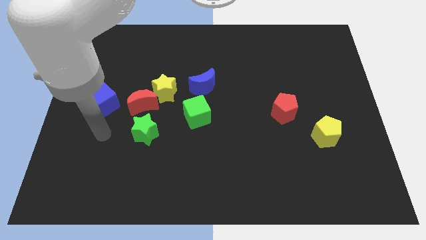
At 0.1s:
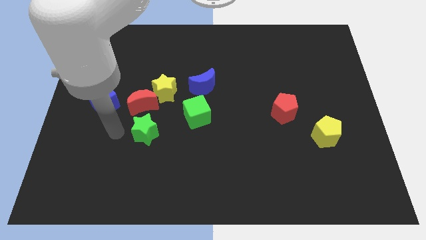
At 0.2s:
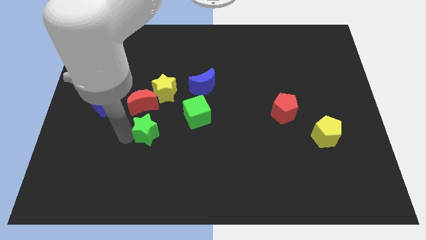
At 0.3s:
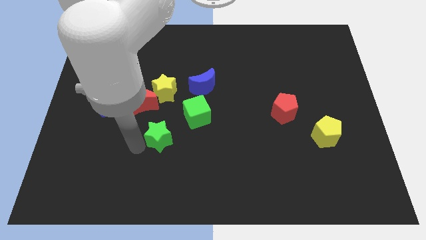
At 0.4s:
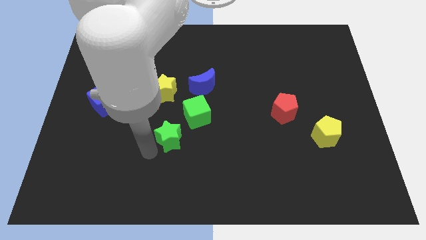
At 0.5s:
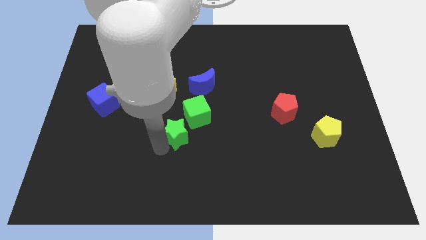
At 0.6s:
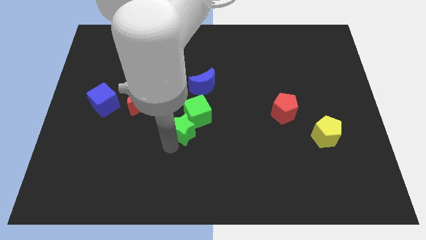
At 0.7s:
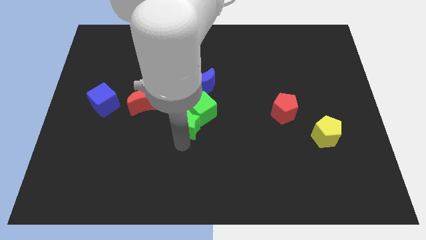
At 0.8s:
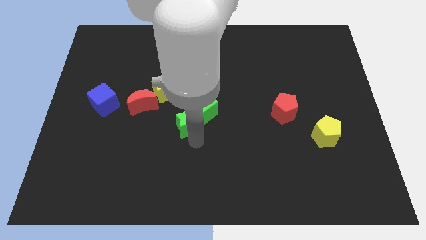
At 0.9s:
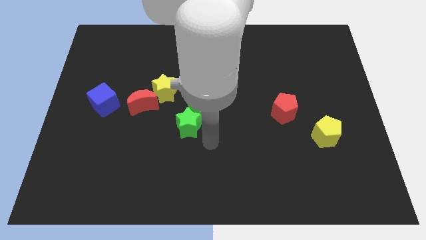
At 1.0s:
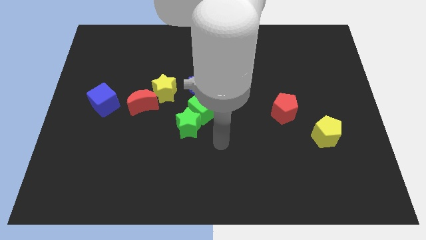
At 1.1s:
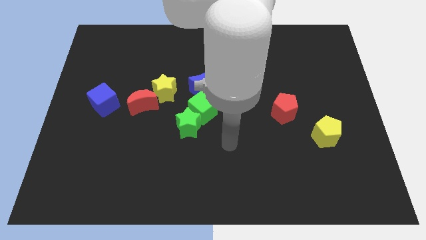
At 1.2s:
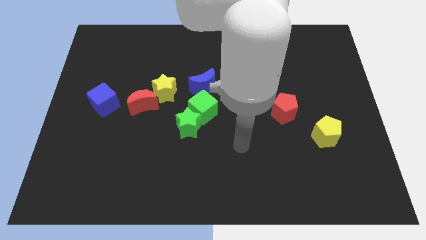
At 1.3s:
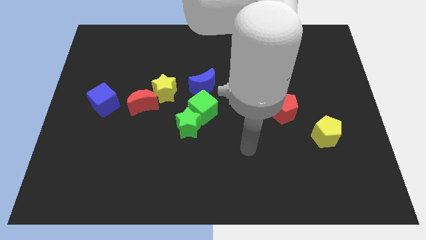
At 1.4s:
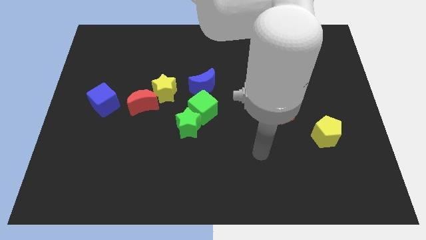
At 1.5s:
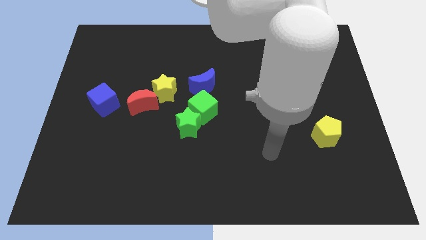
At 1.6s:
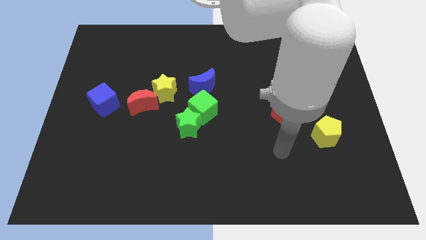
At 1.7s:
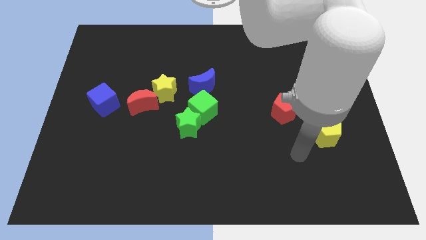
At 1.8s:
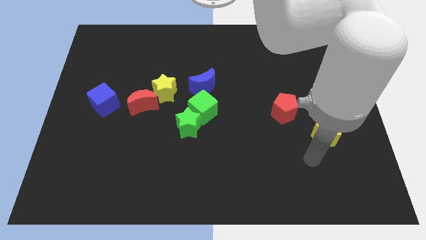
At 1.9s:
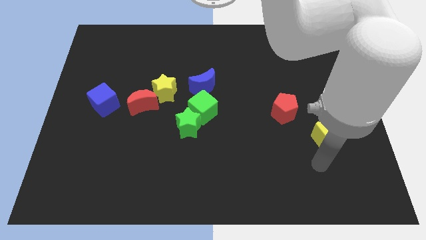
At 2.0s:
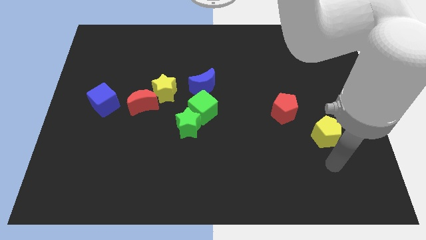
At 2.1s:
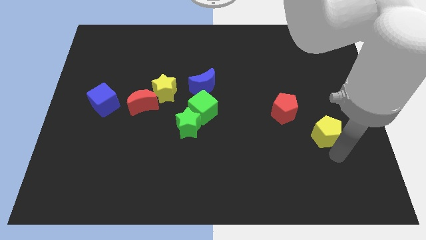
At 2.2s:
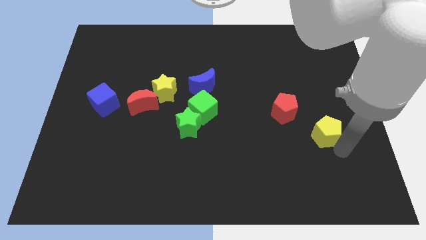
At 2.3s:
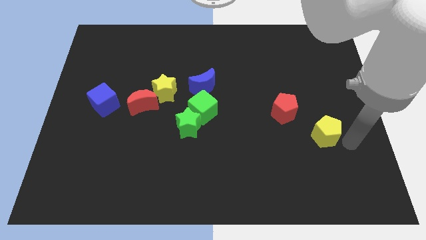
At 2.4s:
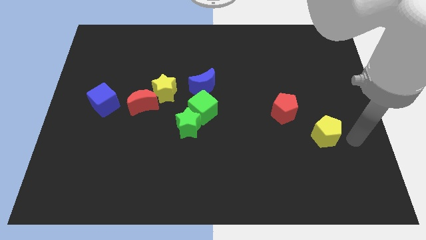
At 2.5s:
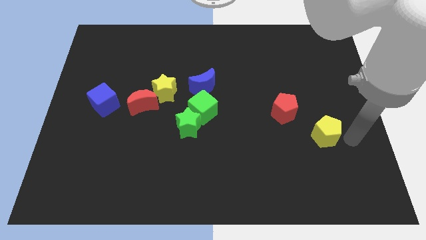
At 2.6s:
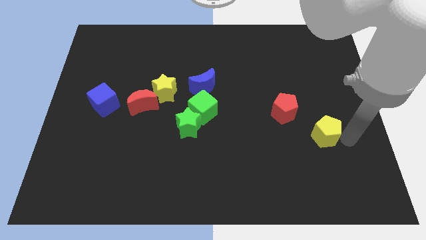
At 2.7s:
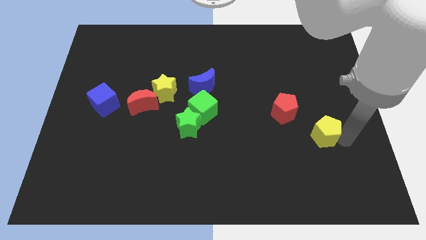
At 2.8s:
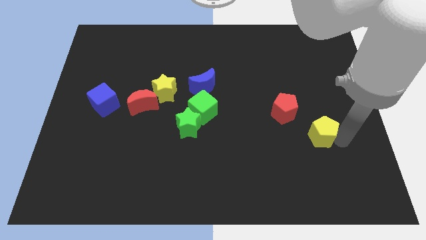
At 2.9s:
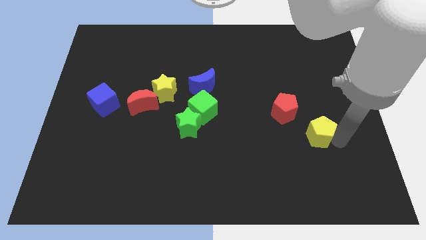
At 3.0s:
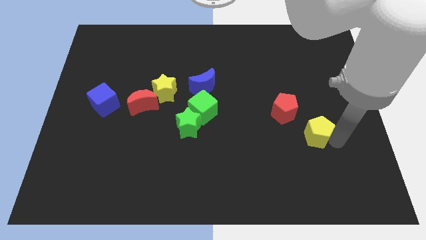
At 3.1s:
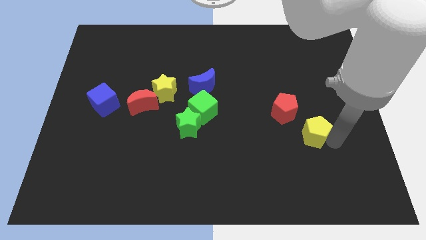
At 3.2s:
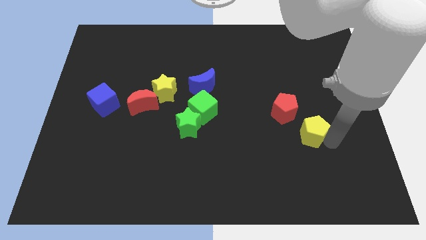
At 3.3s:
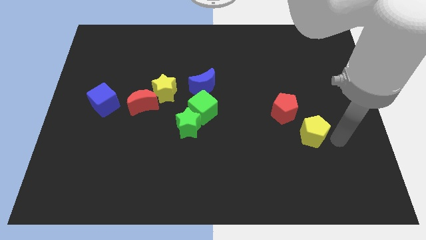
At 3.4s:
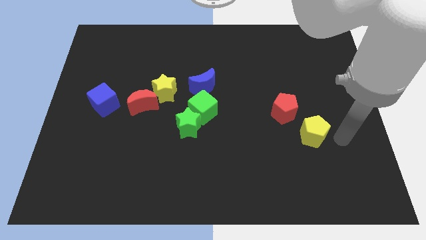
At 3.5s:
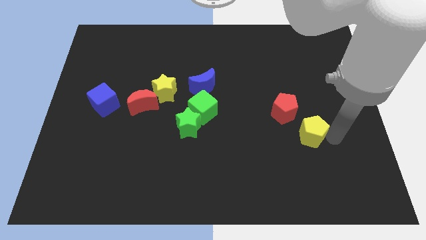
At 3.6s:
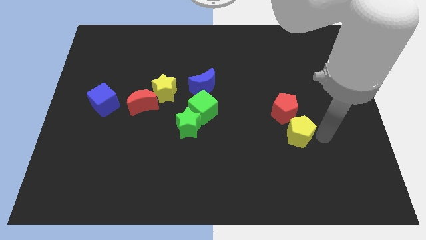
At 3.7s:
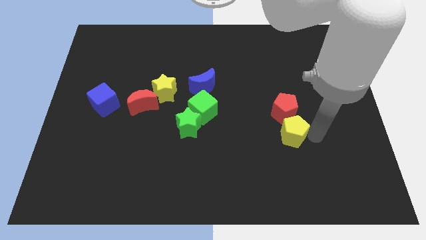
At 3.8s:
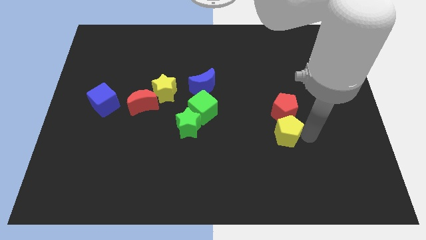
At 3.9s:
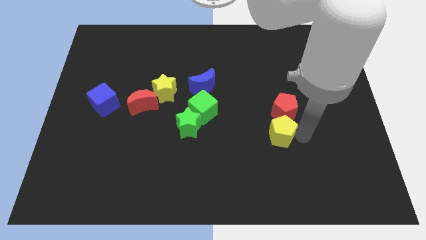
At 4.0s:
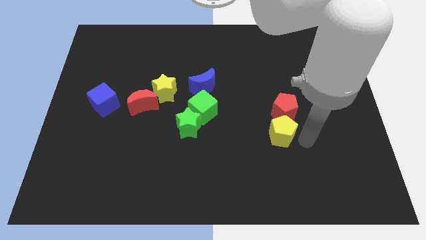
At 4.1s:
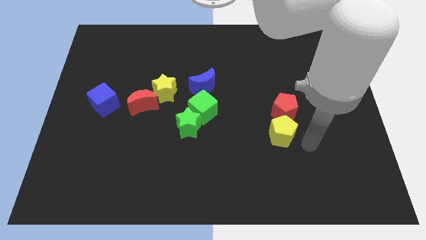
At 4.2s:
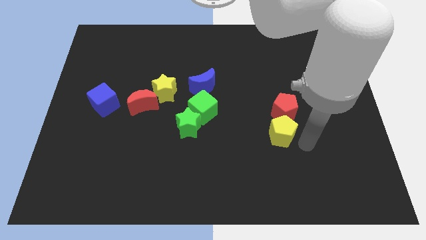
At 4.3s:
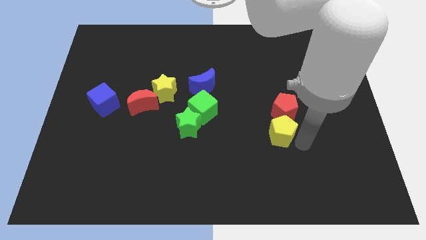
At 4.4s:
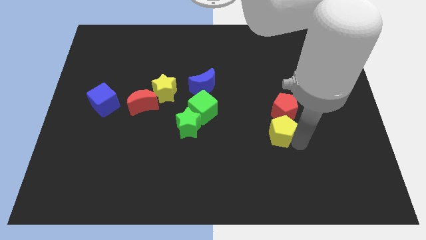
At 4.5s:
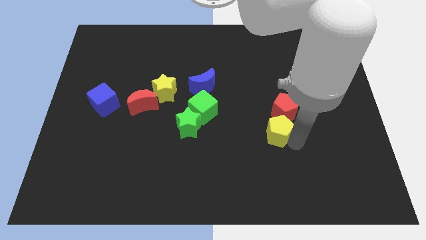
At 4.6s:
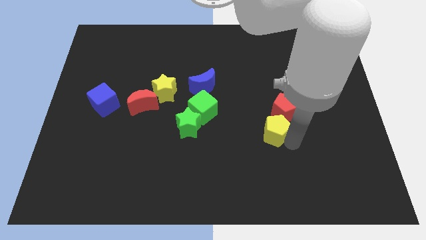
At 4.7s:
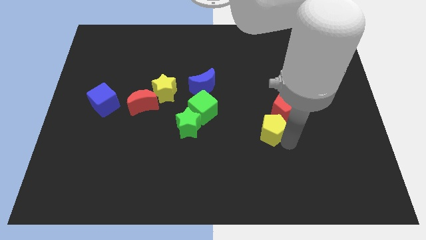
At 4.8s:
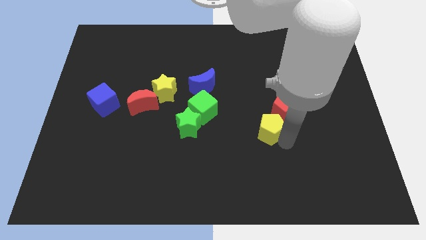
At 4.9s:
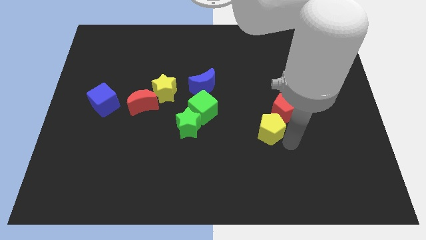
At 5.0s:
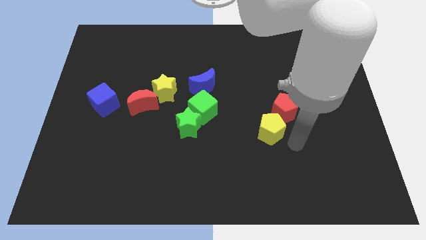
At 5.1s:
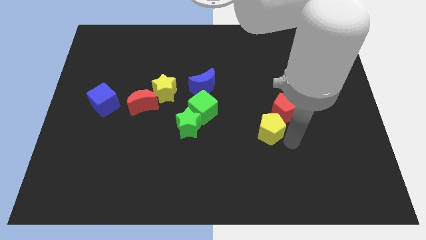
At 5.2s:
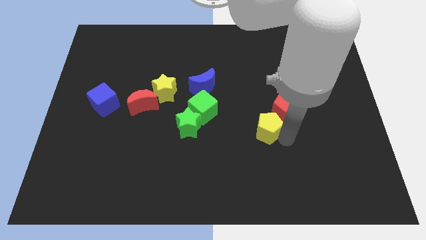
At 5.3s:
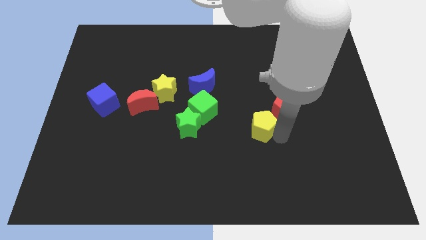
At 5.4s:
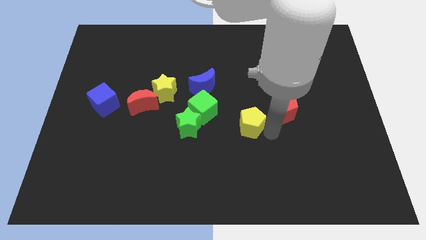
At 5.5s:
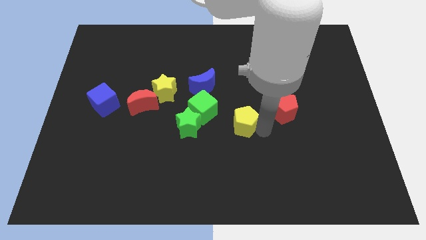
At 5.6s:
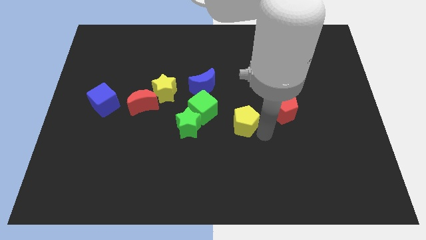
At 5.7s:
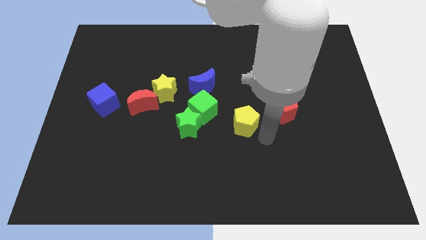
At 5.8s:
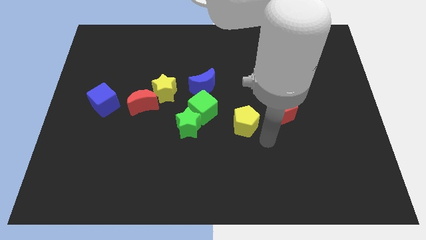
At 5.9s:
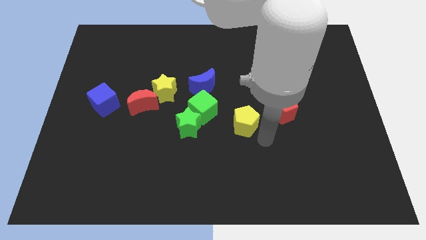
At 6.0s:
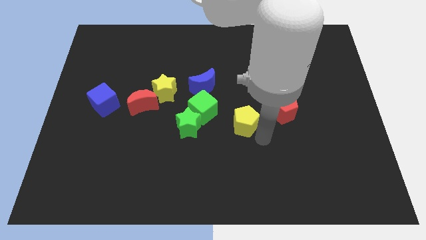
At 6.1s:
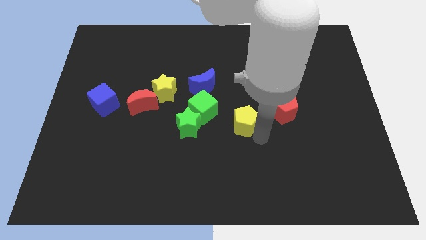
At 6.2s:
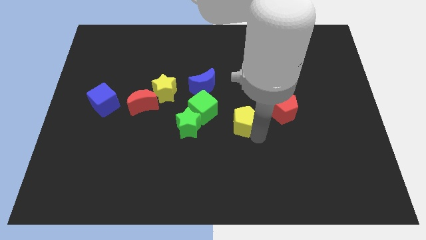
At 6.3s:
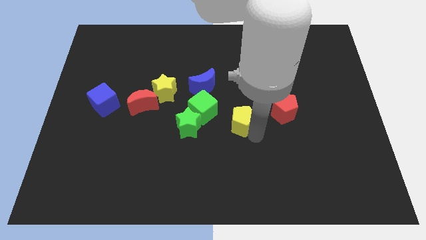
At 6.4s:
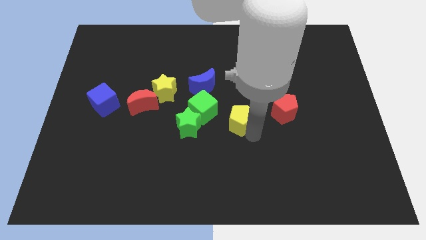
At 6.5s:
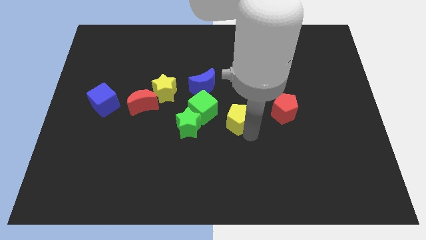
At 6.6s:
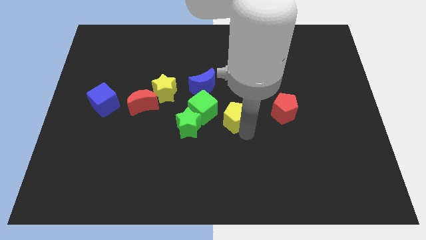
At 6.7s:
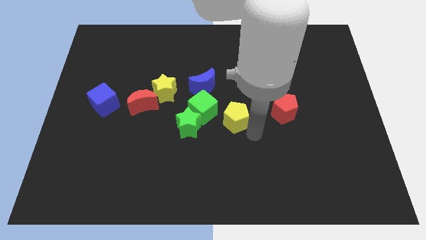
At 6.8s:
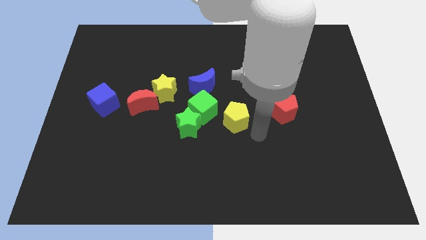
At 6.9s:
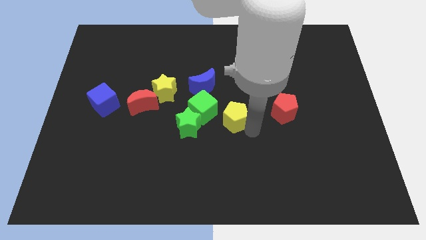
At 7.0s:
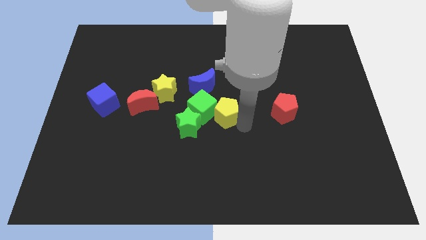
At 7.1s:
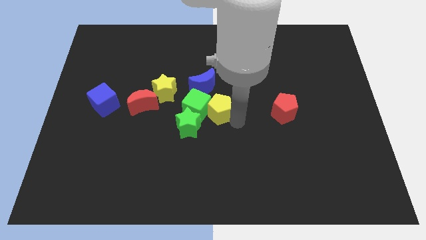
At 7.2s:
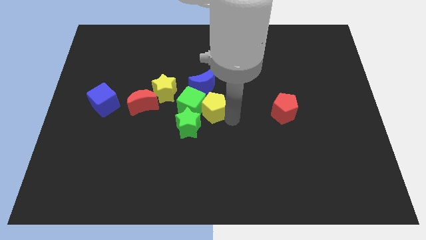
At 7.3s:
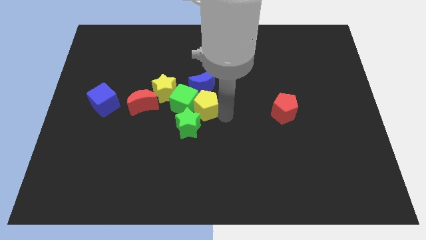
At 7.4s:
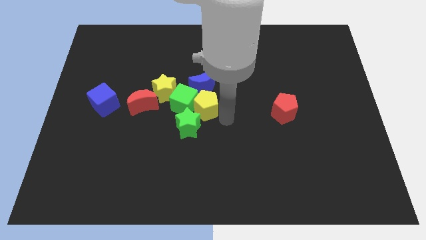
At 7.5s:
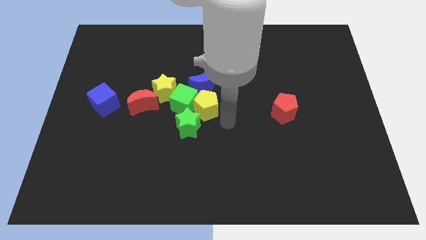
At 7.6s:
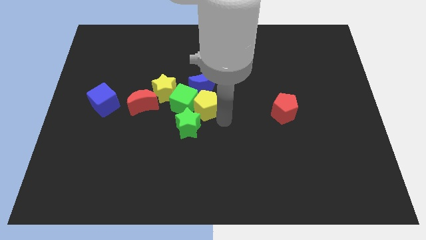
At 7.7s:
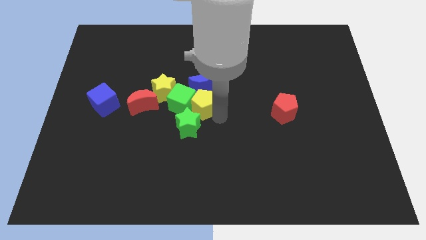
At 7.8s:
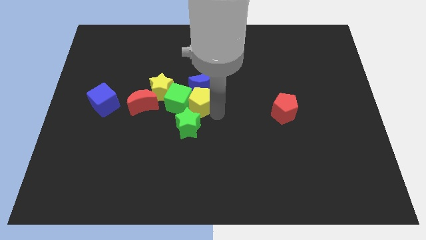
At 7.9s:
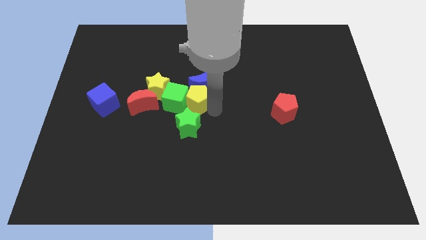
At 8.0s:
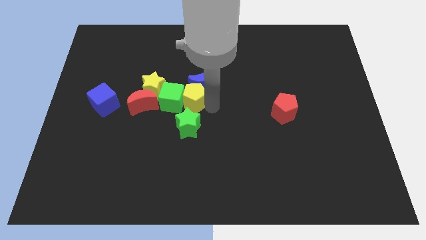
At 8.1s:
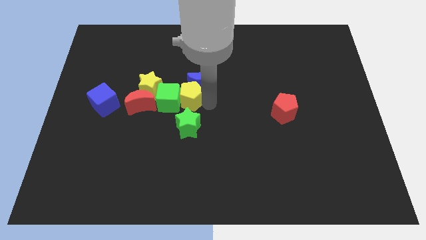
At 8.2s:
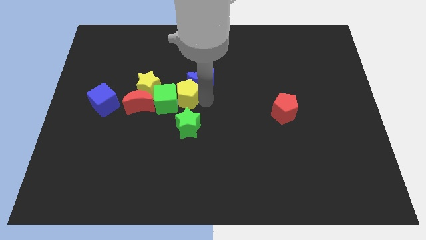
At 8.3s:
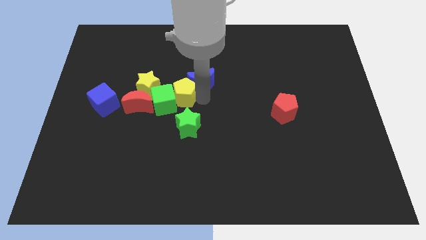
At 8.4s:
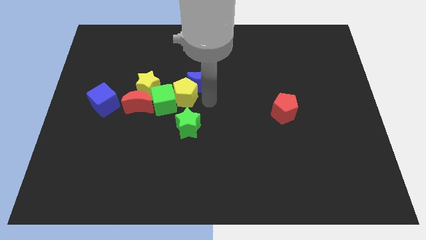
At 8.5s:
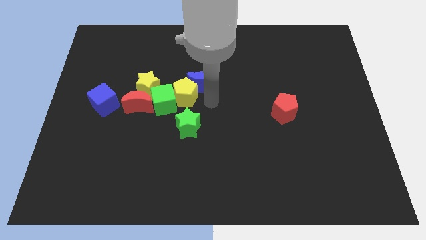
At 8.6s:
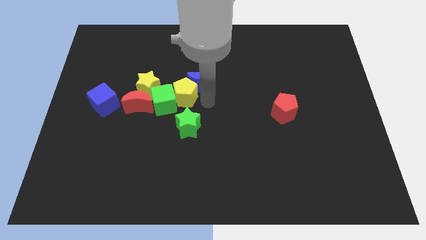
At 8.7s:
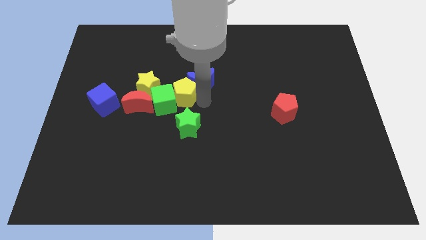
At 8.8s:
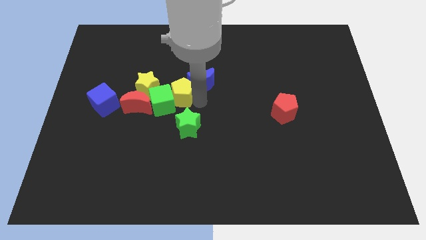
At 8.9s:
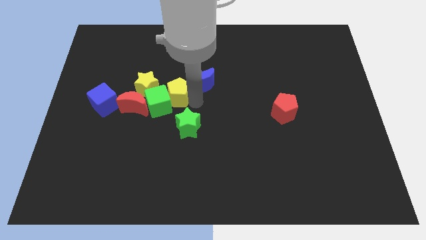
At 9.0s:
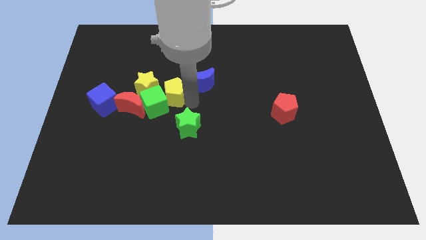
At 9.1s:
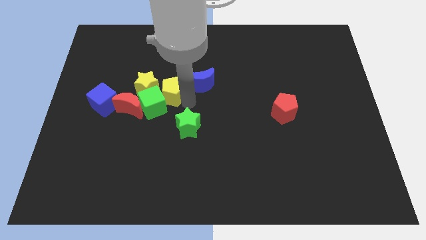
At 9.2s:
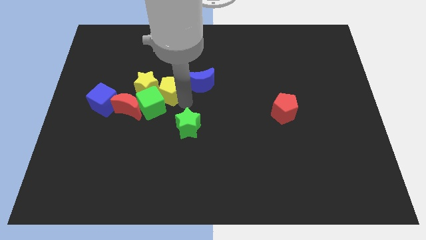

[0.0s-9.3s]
put the yellow pentagon towards the yellow star
